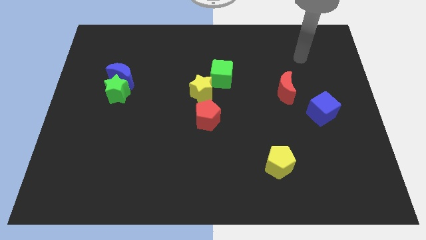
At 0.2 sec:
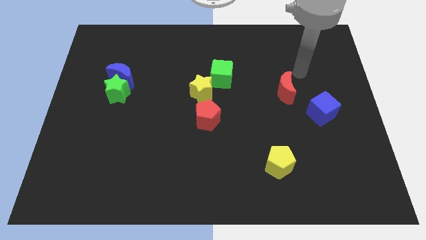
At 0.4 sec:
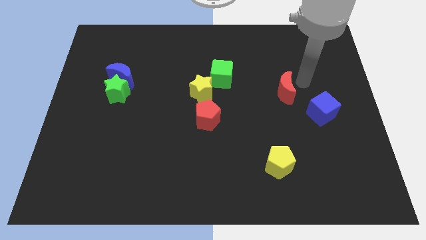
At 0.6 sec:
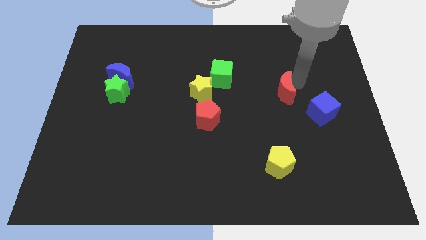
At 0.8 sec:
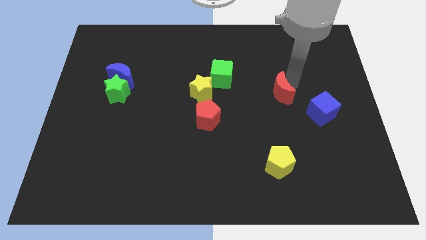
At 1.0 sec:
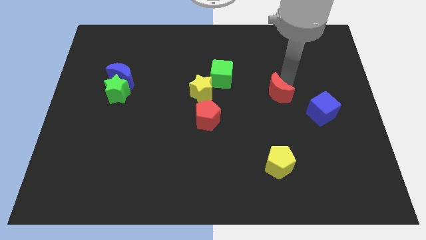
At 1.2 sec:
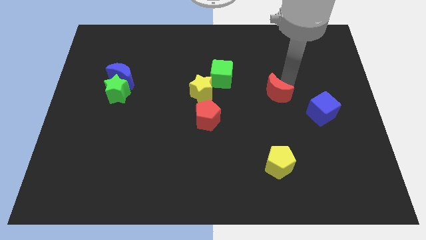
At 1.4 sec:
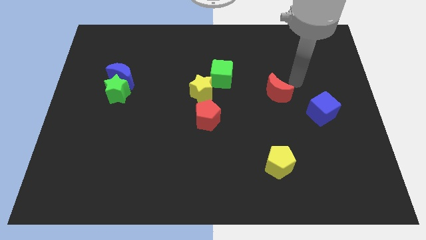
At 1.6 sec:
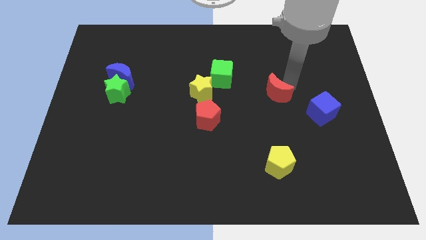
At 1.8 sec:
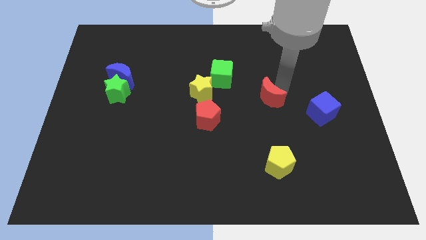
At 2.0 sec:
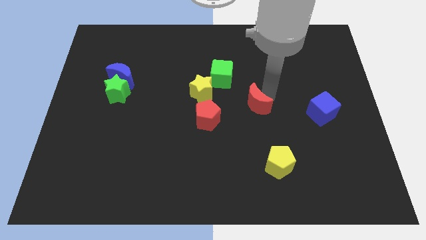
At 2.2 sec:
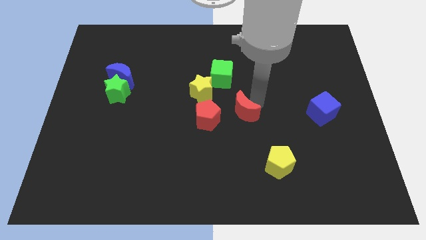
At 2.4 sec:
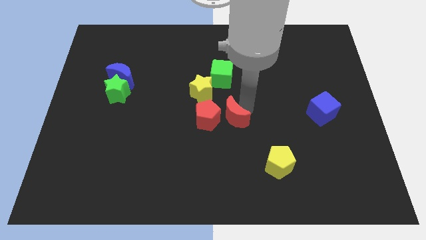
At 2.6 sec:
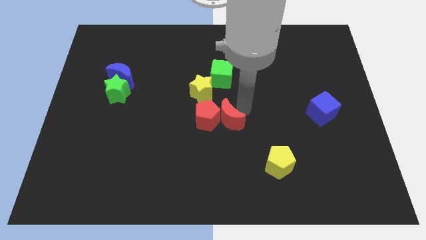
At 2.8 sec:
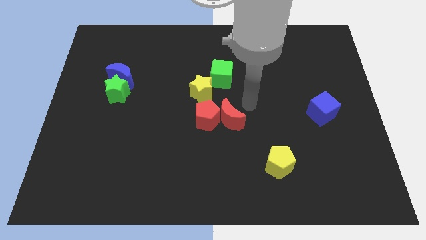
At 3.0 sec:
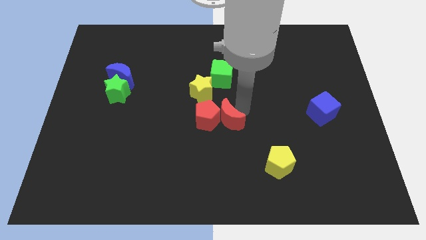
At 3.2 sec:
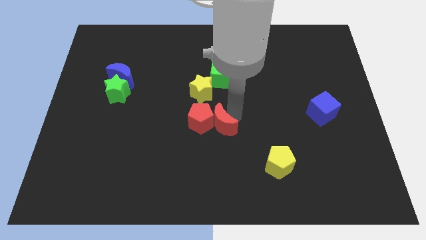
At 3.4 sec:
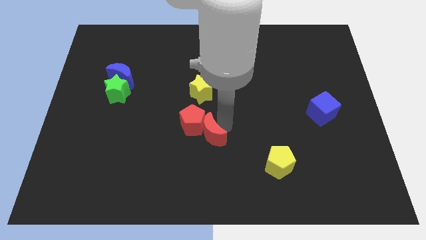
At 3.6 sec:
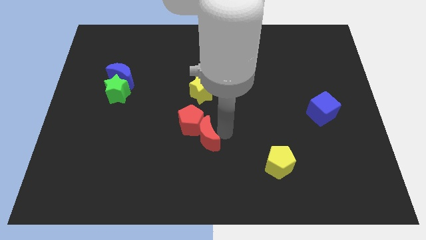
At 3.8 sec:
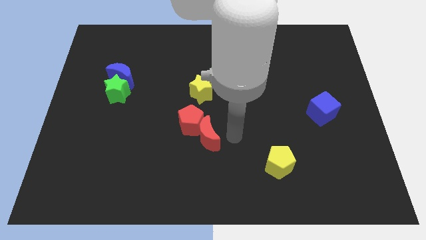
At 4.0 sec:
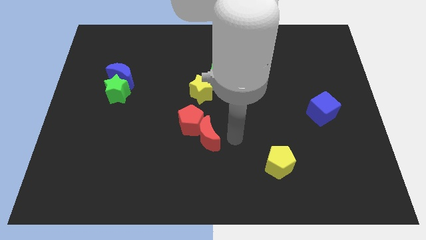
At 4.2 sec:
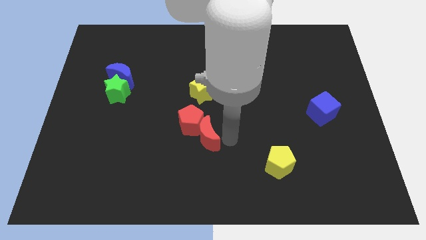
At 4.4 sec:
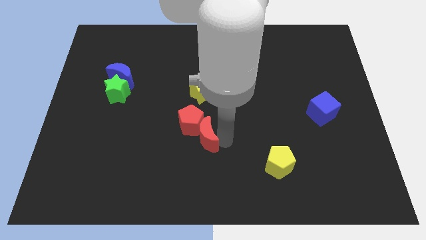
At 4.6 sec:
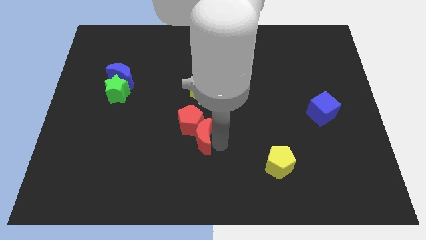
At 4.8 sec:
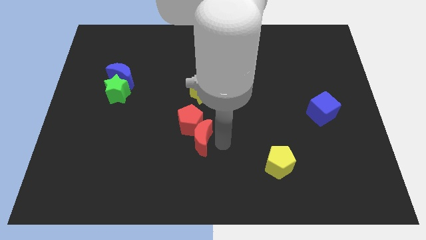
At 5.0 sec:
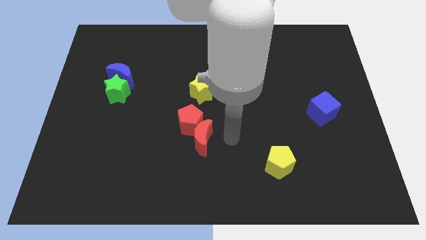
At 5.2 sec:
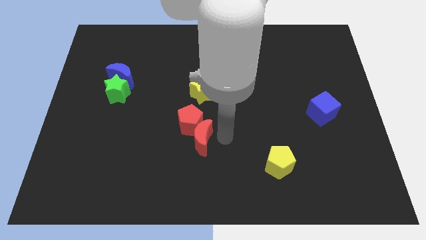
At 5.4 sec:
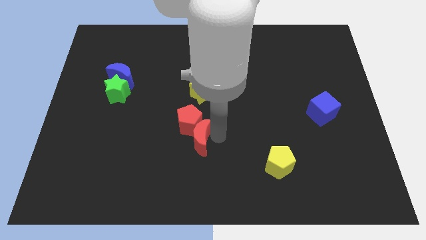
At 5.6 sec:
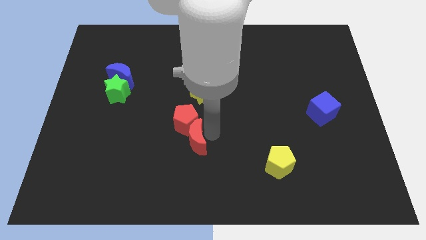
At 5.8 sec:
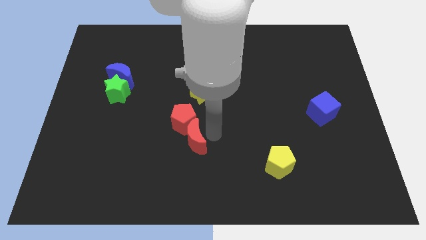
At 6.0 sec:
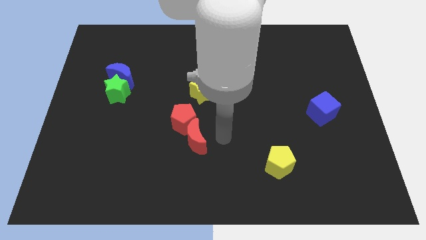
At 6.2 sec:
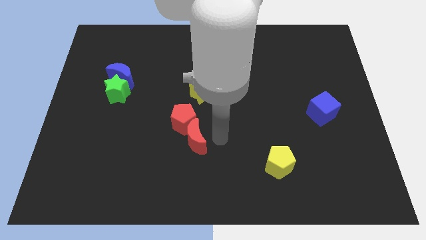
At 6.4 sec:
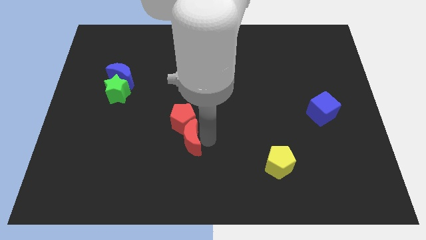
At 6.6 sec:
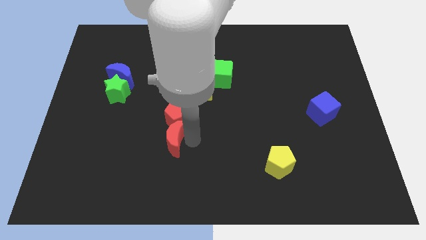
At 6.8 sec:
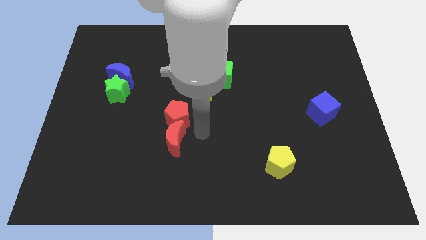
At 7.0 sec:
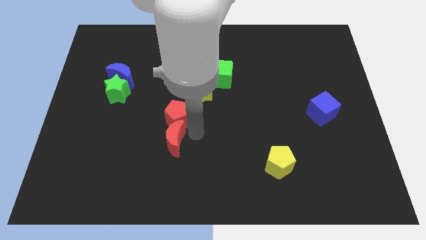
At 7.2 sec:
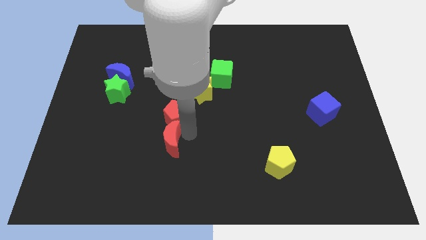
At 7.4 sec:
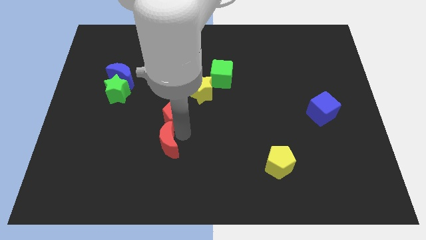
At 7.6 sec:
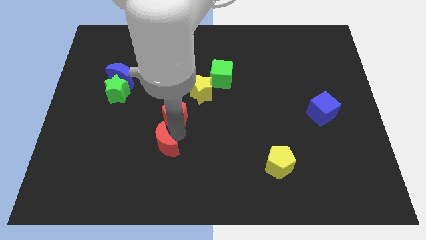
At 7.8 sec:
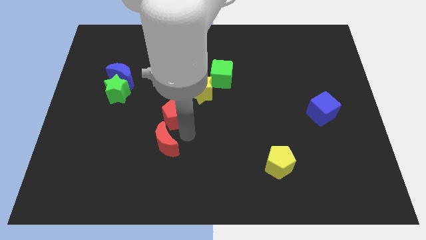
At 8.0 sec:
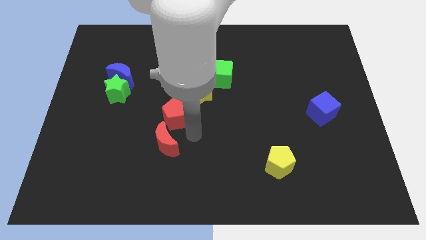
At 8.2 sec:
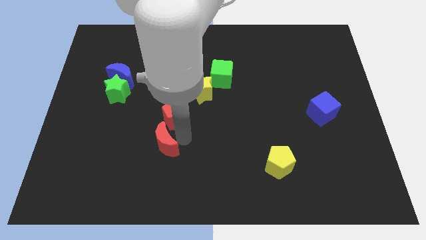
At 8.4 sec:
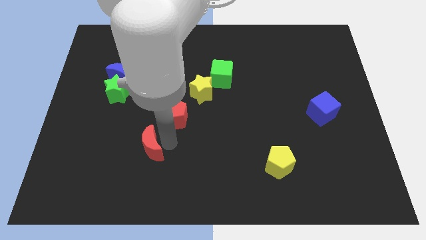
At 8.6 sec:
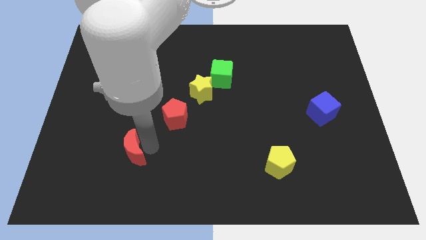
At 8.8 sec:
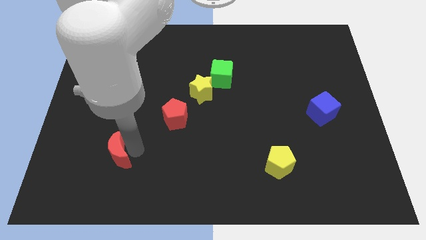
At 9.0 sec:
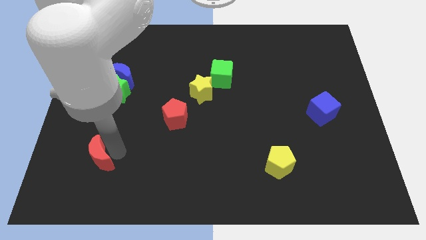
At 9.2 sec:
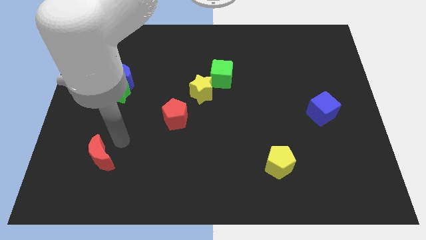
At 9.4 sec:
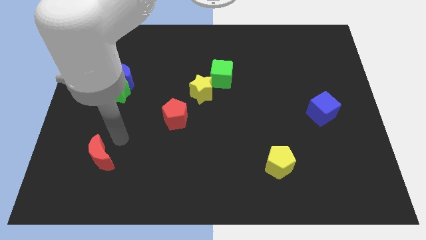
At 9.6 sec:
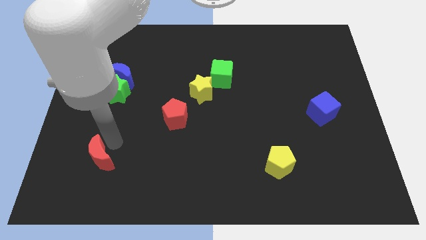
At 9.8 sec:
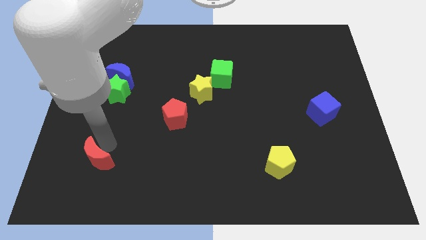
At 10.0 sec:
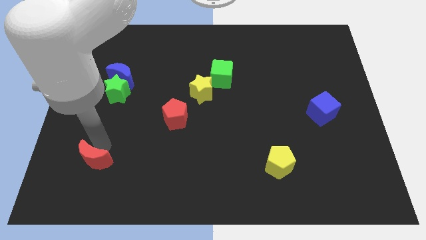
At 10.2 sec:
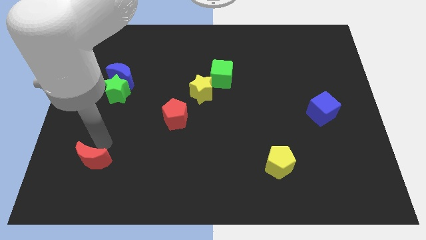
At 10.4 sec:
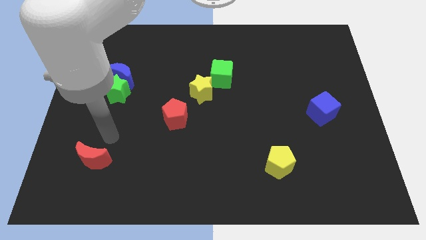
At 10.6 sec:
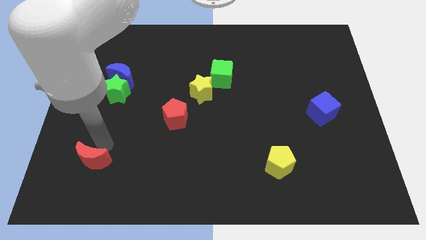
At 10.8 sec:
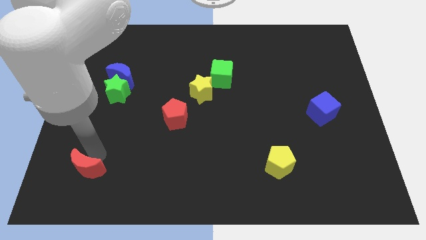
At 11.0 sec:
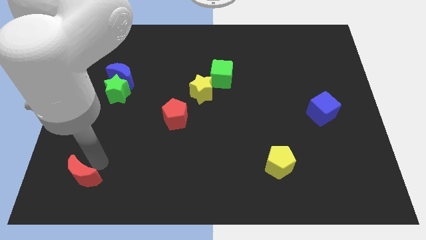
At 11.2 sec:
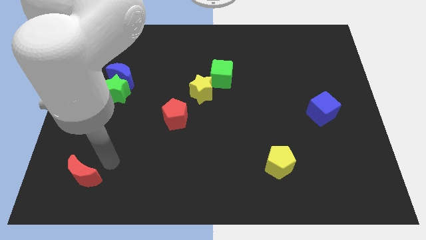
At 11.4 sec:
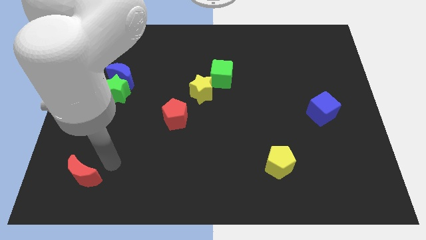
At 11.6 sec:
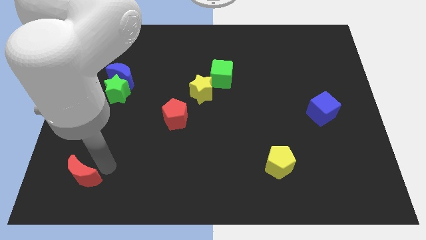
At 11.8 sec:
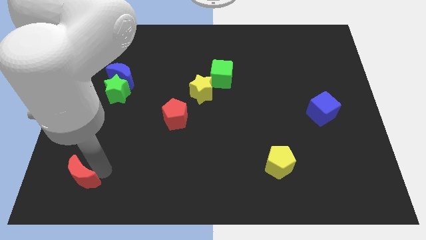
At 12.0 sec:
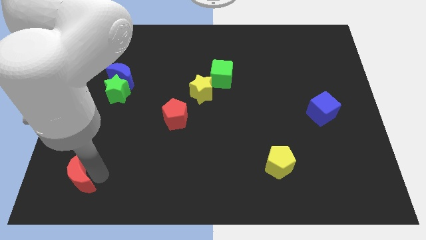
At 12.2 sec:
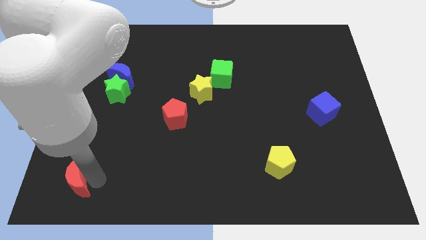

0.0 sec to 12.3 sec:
push the red moon to the lower left corner
